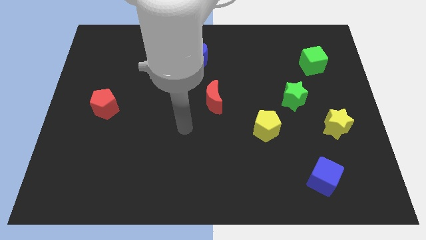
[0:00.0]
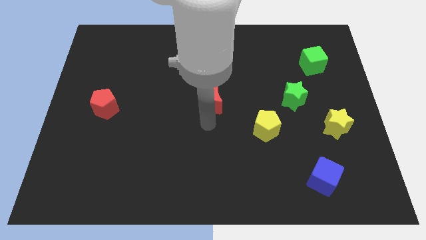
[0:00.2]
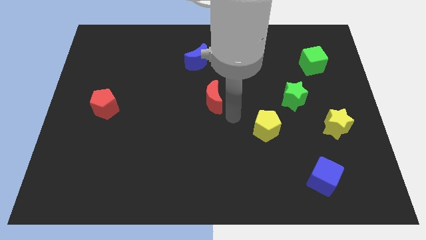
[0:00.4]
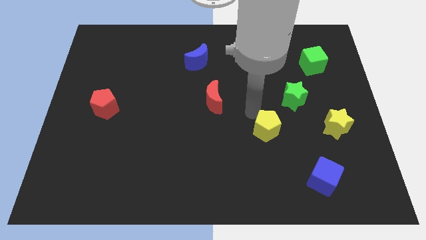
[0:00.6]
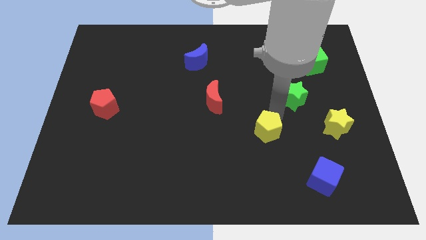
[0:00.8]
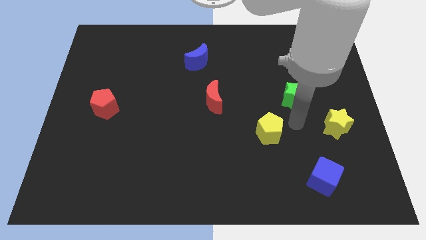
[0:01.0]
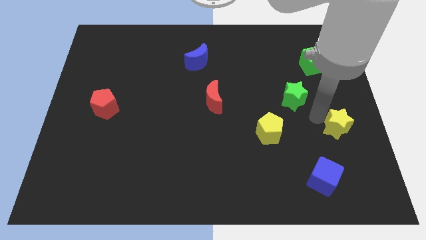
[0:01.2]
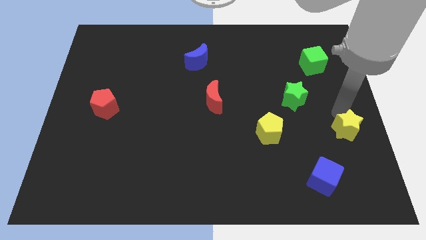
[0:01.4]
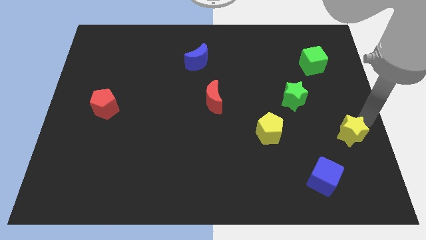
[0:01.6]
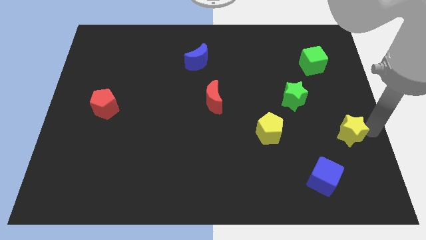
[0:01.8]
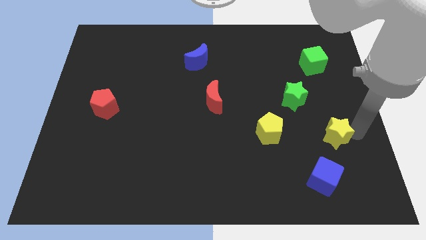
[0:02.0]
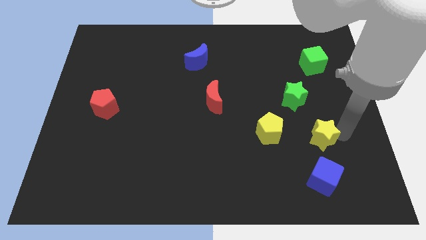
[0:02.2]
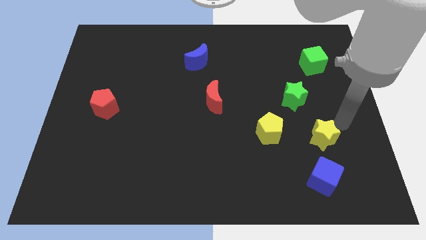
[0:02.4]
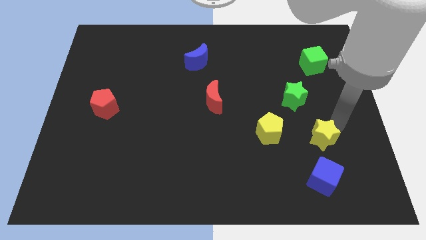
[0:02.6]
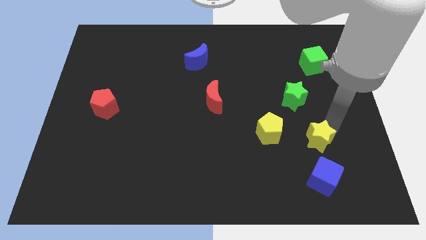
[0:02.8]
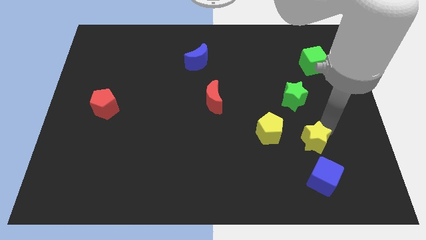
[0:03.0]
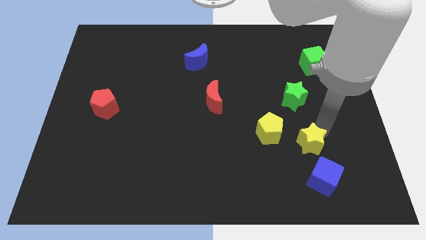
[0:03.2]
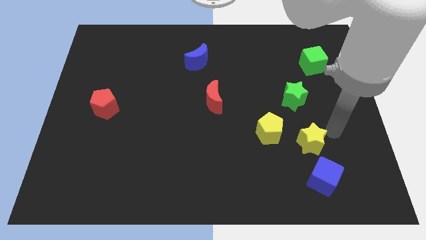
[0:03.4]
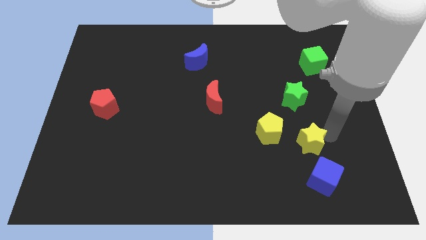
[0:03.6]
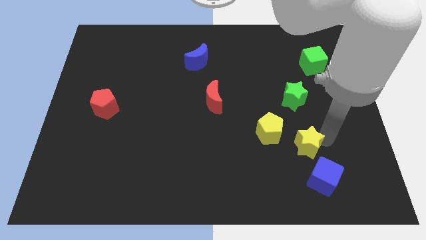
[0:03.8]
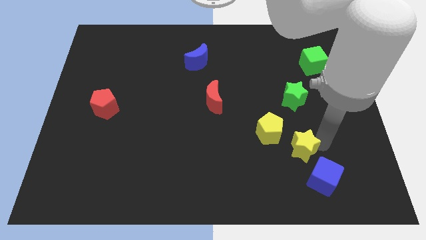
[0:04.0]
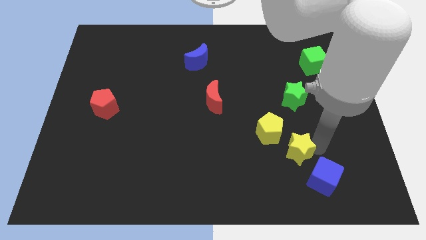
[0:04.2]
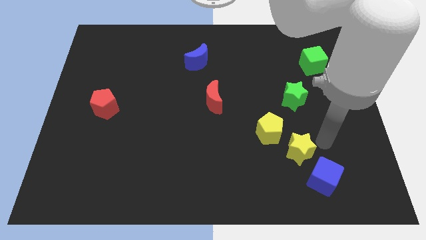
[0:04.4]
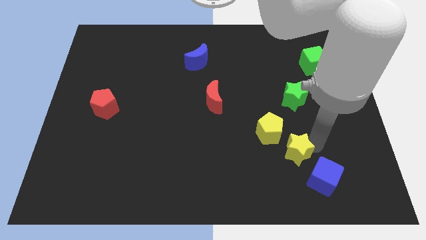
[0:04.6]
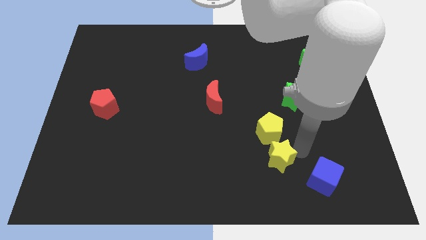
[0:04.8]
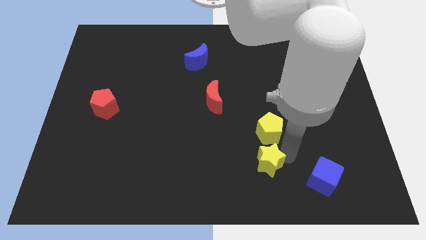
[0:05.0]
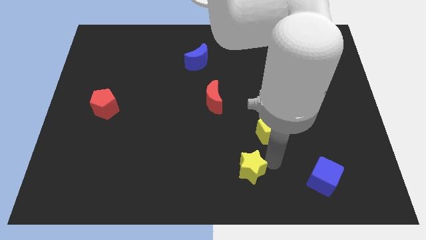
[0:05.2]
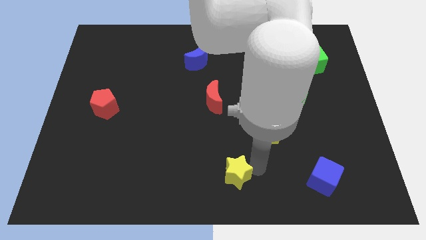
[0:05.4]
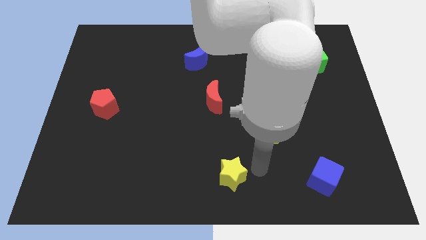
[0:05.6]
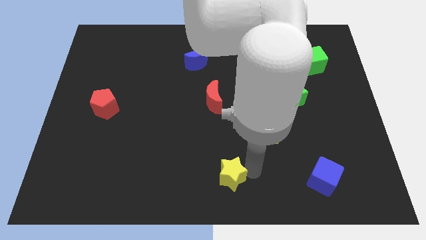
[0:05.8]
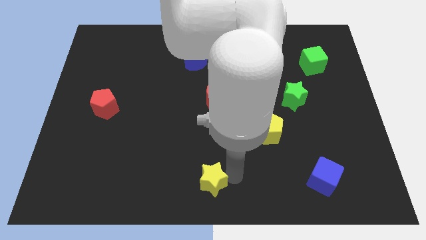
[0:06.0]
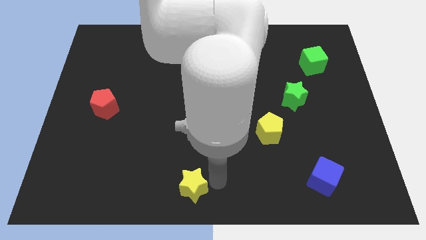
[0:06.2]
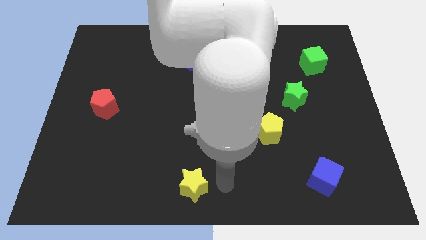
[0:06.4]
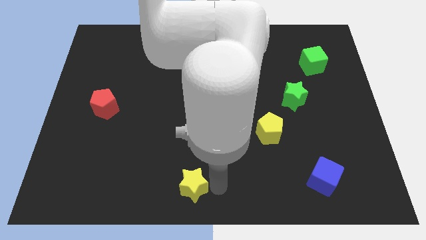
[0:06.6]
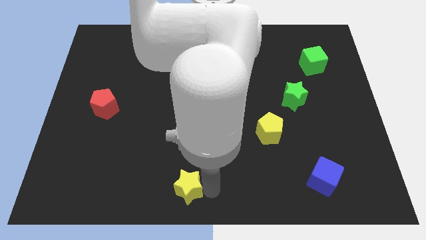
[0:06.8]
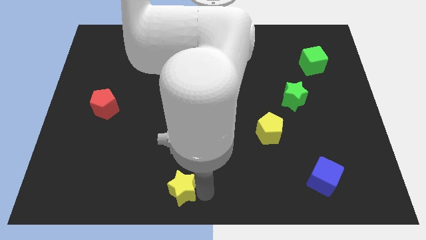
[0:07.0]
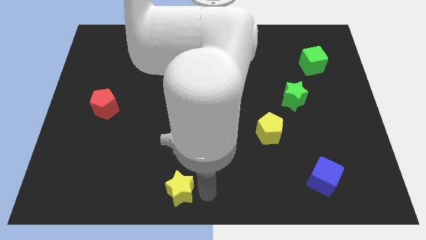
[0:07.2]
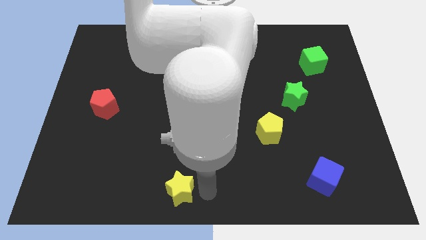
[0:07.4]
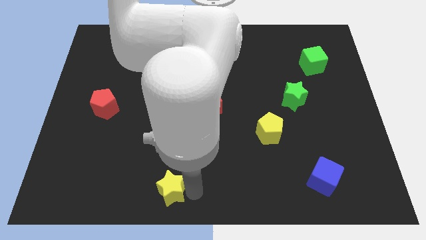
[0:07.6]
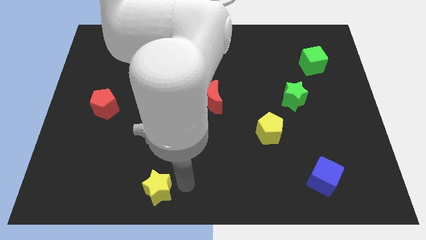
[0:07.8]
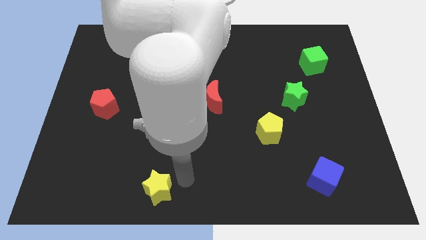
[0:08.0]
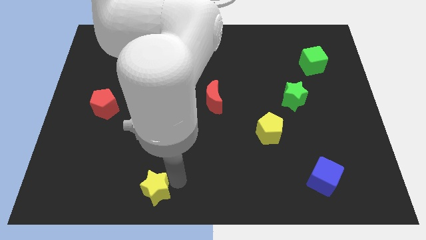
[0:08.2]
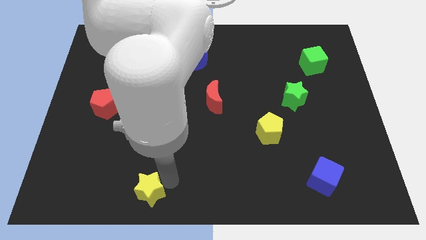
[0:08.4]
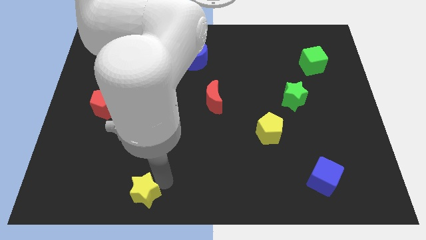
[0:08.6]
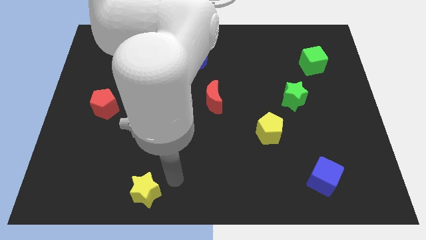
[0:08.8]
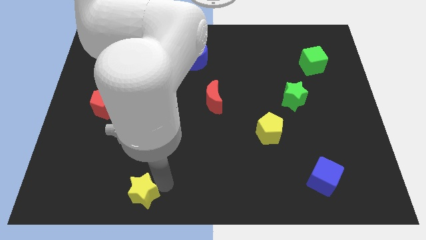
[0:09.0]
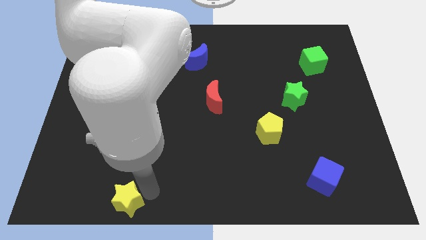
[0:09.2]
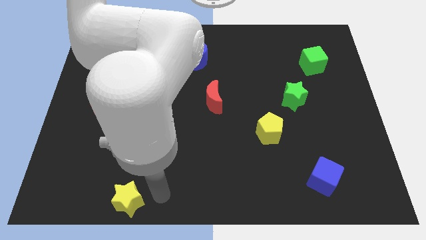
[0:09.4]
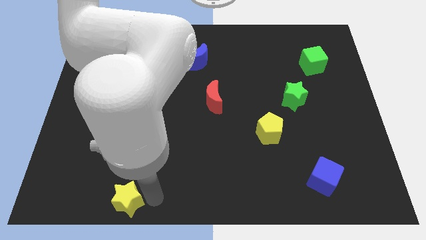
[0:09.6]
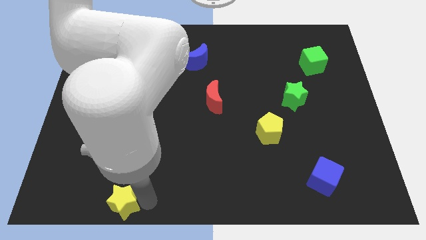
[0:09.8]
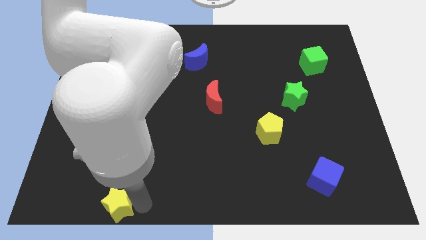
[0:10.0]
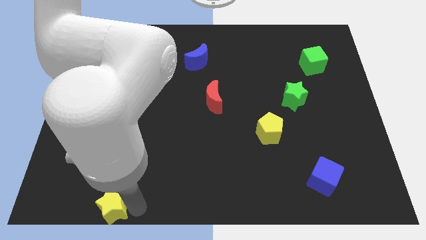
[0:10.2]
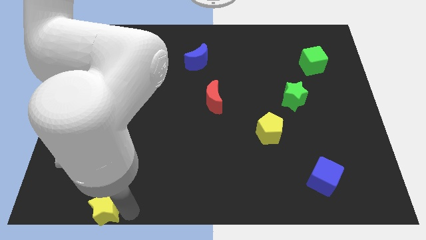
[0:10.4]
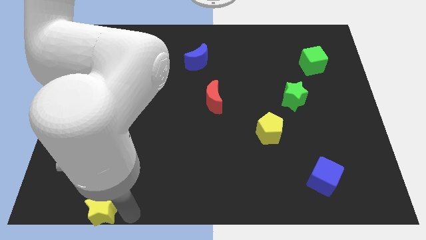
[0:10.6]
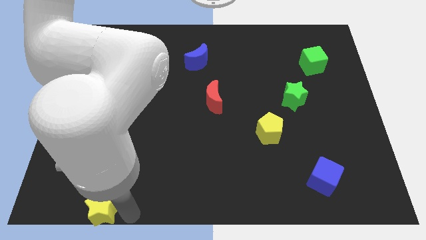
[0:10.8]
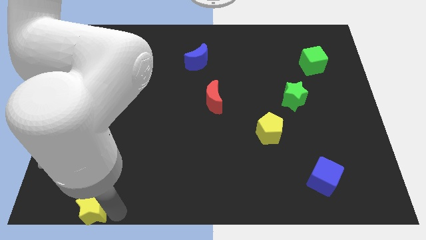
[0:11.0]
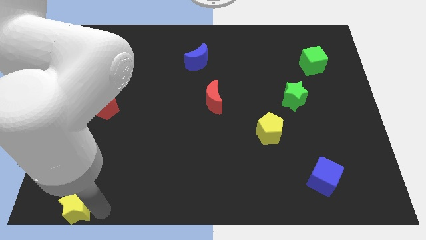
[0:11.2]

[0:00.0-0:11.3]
push the yellow star to the bottom left corner

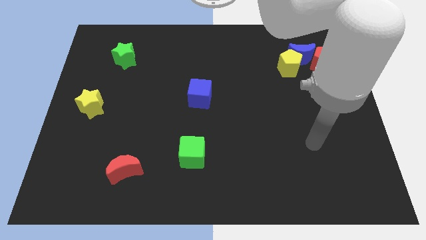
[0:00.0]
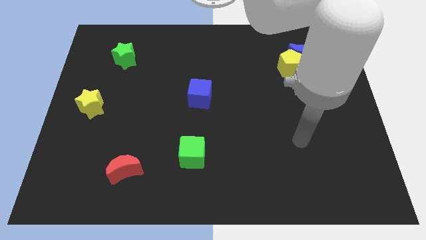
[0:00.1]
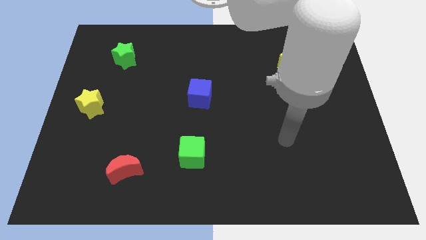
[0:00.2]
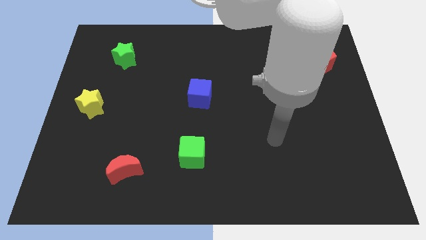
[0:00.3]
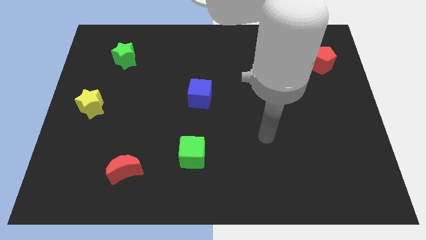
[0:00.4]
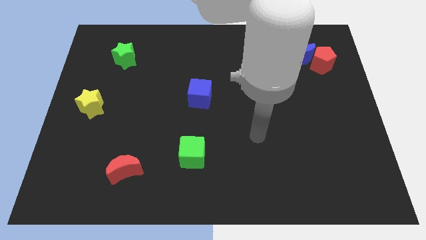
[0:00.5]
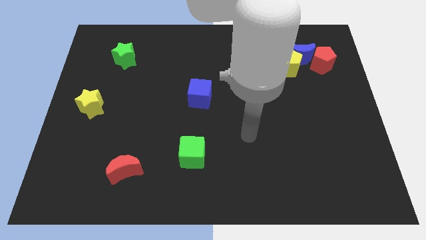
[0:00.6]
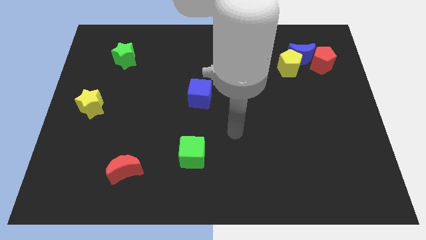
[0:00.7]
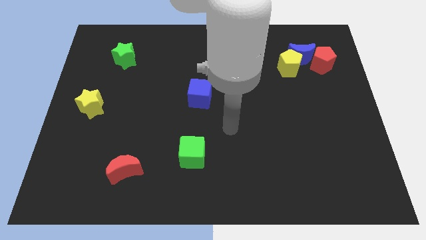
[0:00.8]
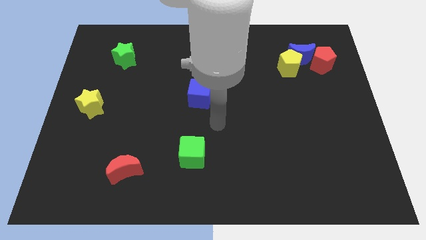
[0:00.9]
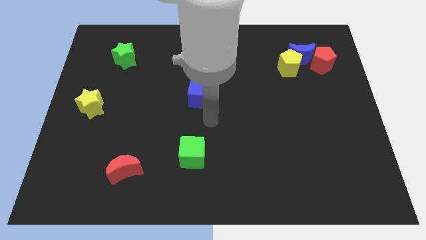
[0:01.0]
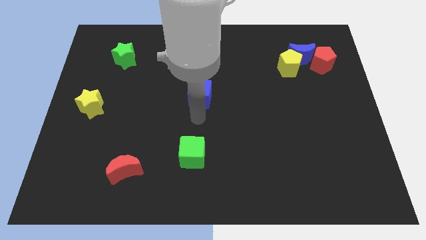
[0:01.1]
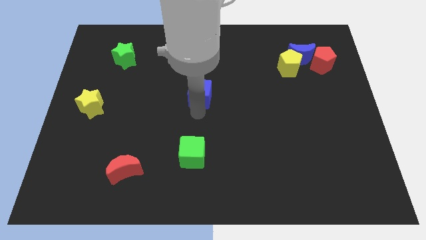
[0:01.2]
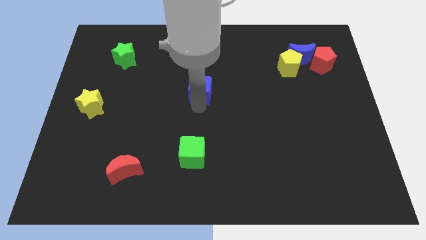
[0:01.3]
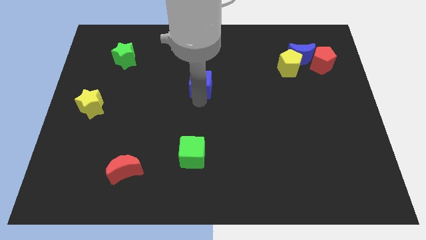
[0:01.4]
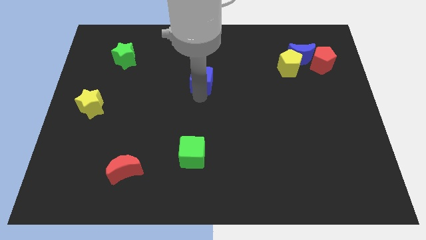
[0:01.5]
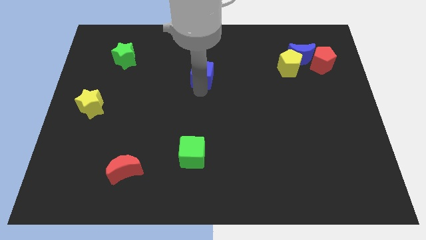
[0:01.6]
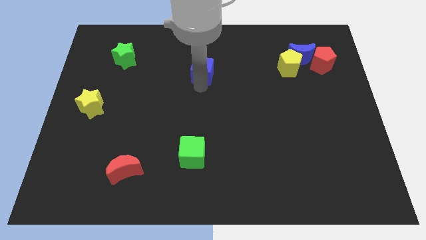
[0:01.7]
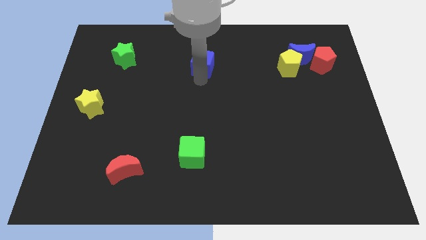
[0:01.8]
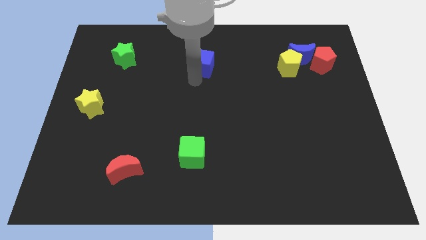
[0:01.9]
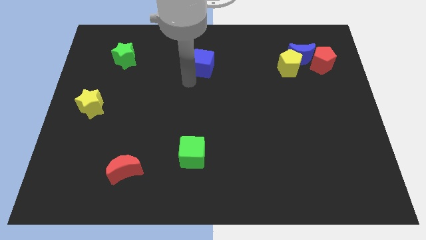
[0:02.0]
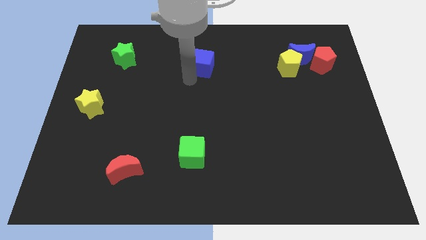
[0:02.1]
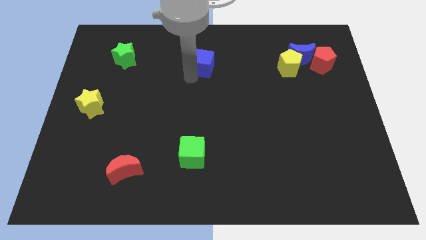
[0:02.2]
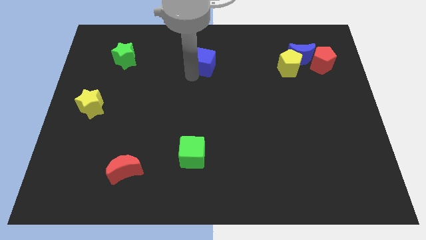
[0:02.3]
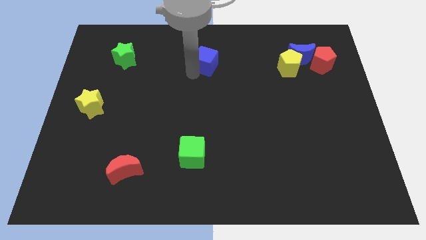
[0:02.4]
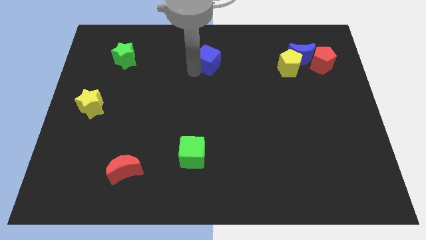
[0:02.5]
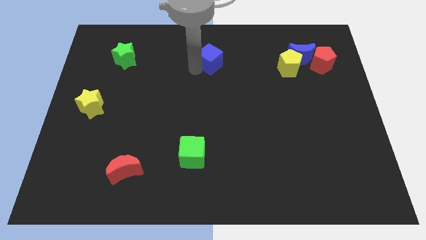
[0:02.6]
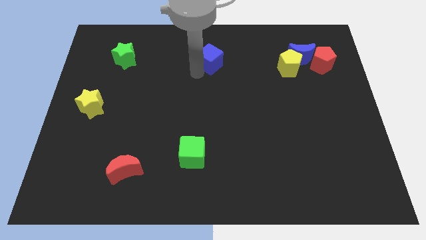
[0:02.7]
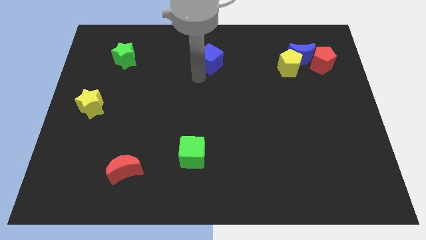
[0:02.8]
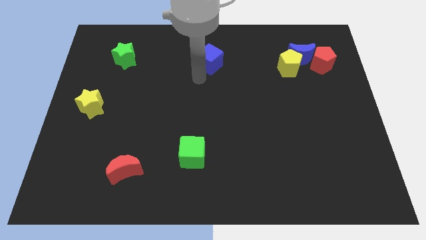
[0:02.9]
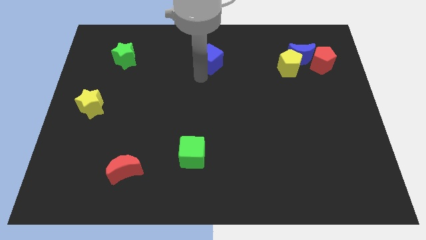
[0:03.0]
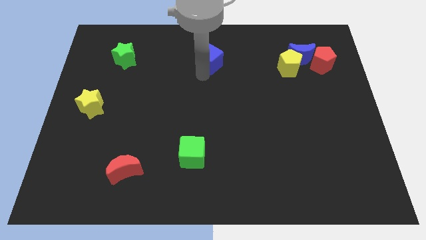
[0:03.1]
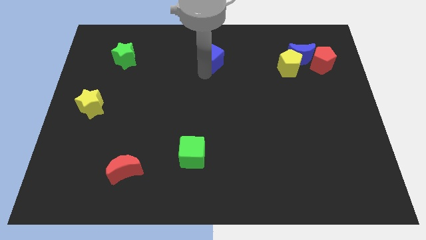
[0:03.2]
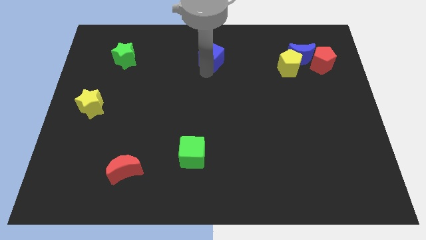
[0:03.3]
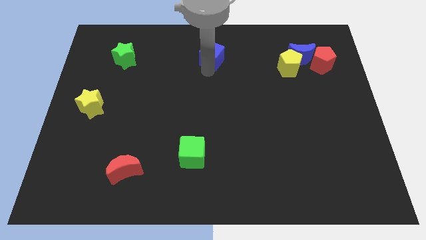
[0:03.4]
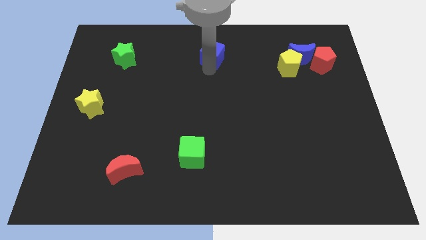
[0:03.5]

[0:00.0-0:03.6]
slide the blue cube to the top
